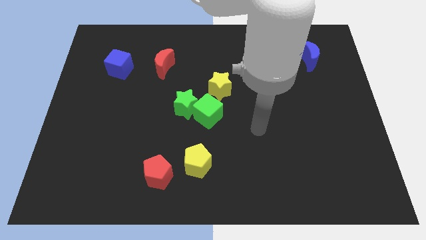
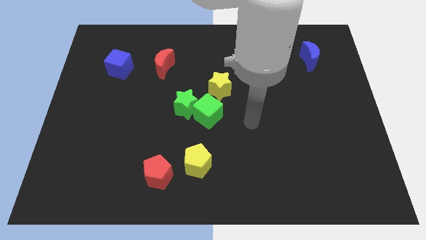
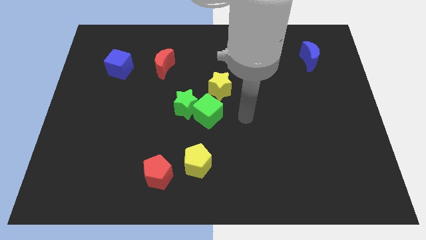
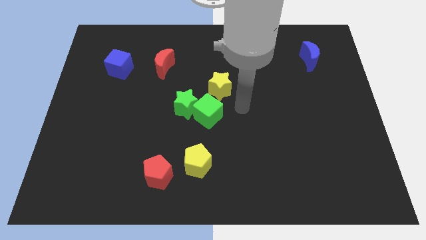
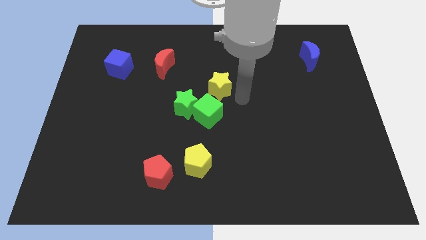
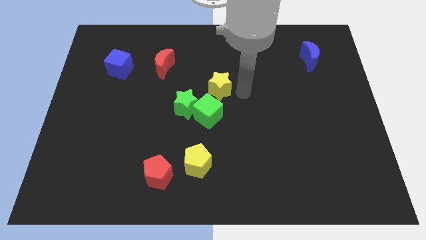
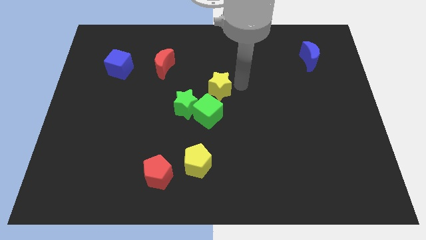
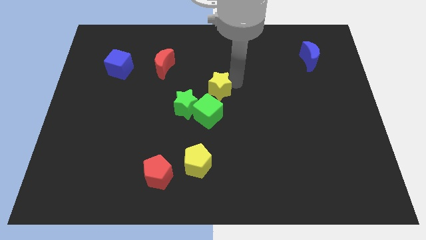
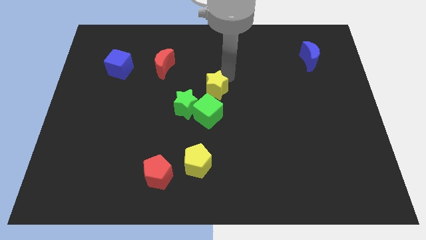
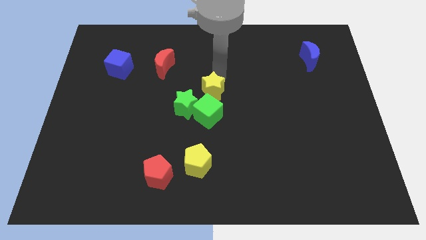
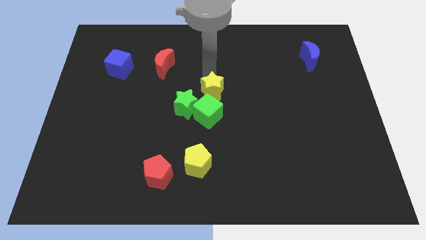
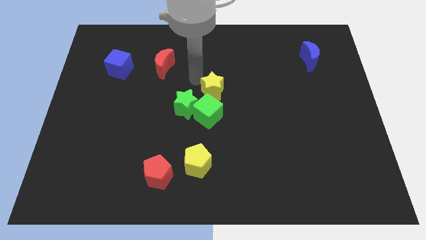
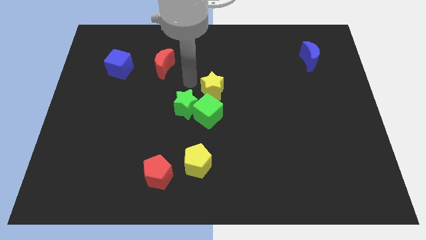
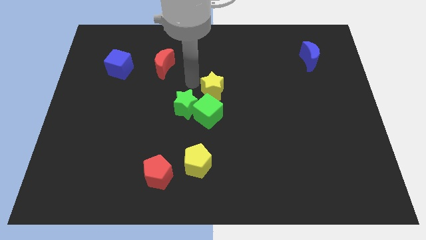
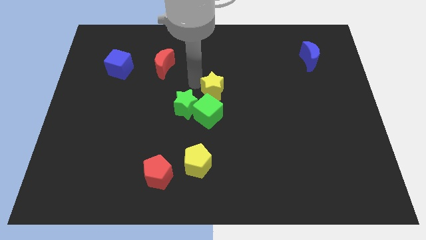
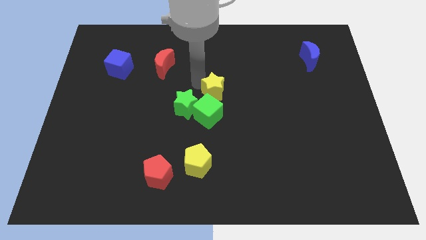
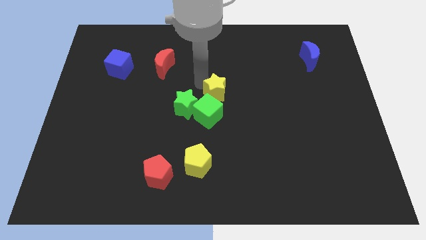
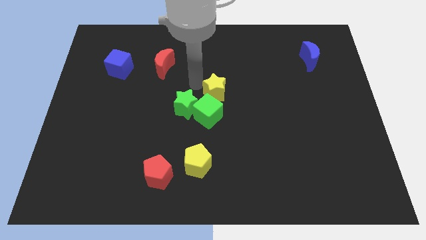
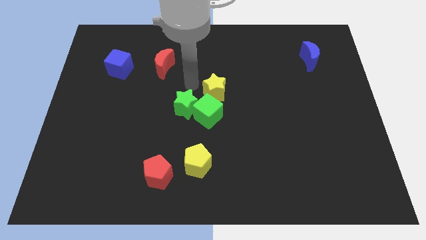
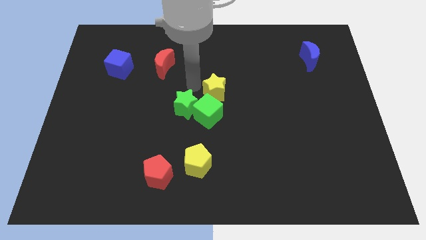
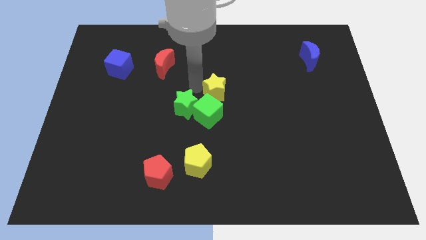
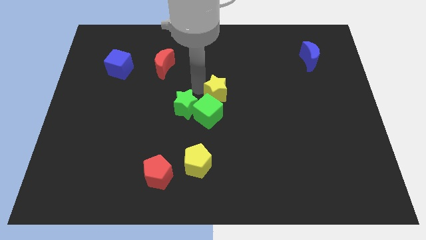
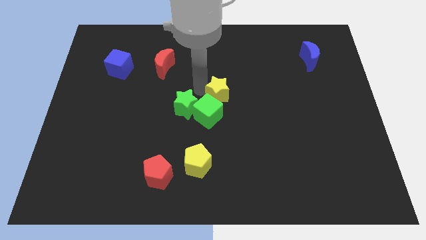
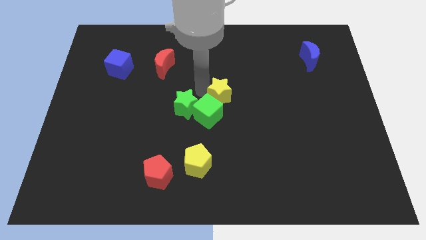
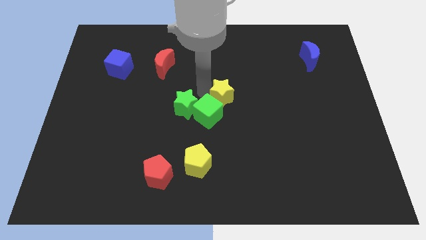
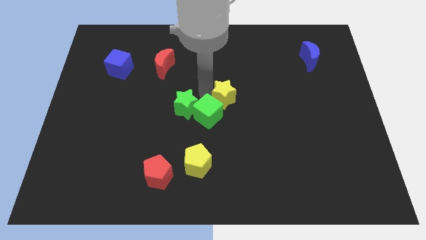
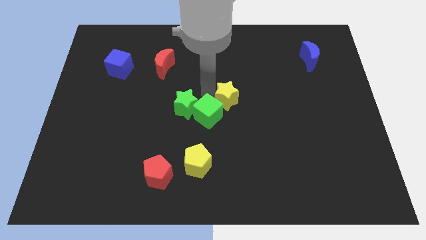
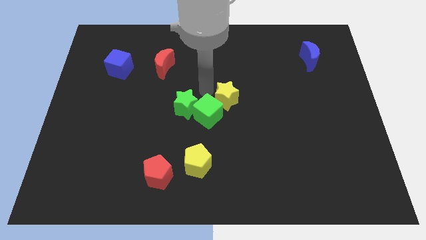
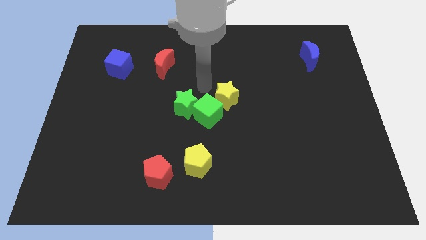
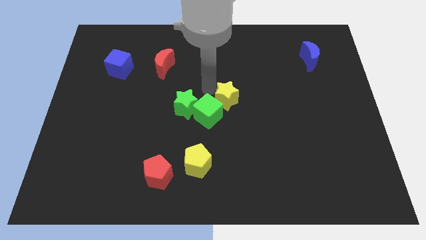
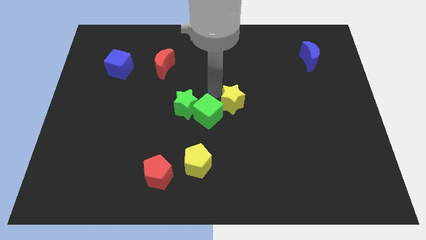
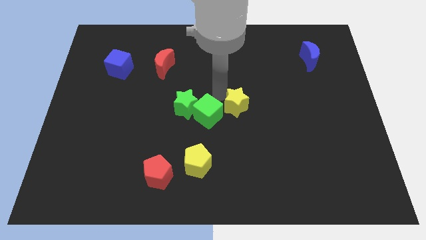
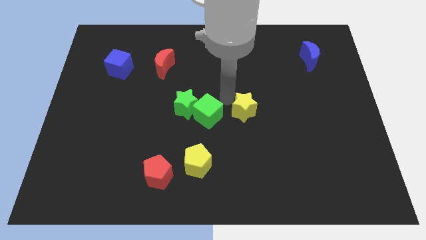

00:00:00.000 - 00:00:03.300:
move the yellow star down and right diagonally a bit

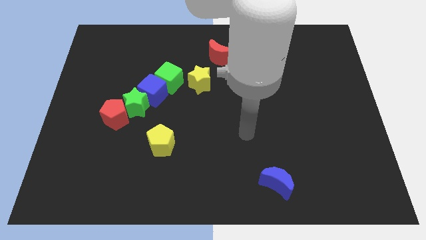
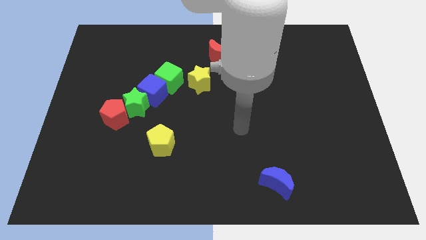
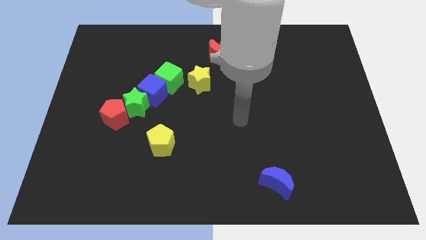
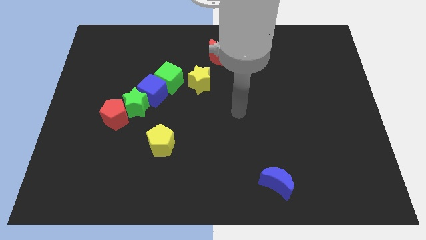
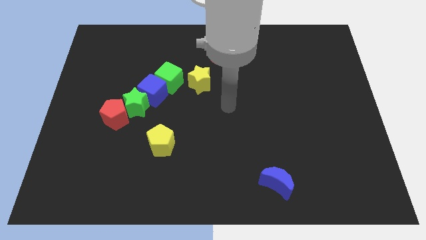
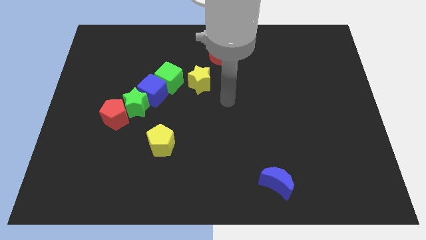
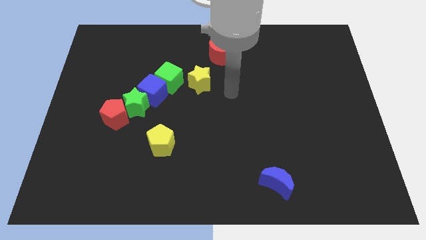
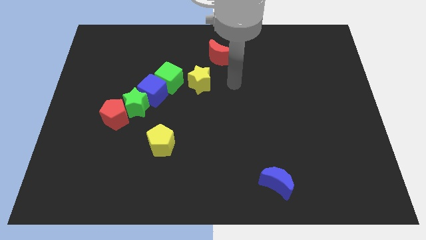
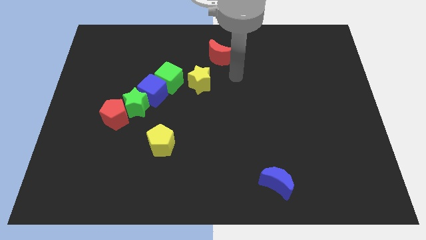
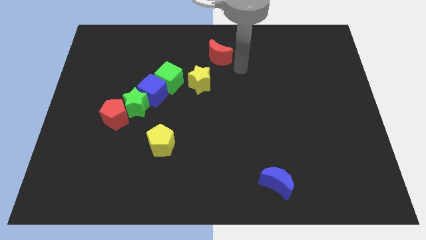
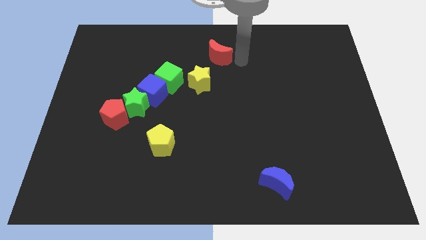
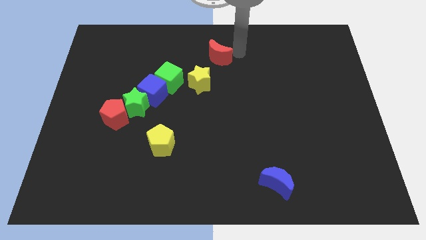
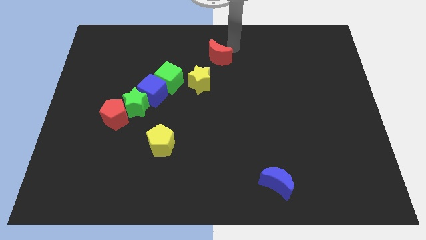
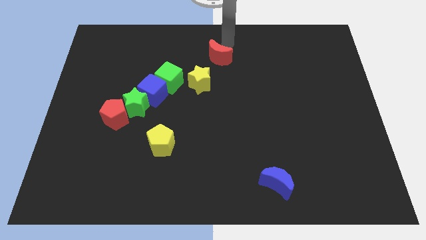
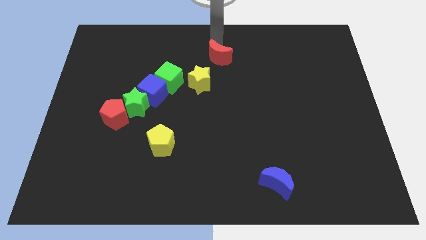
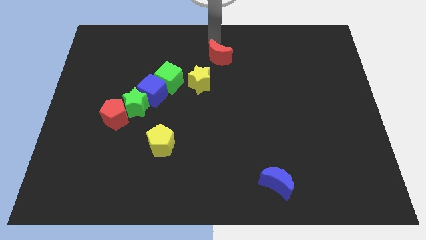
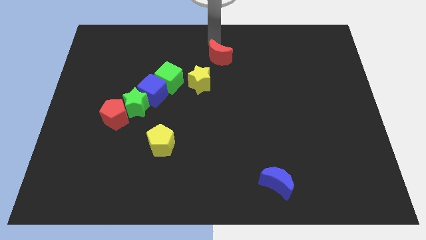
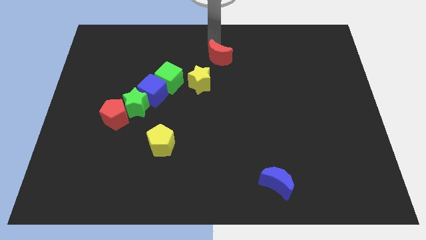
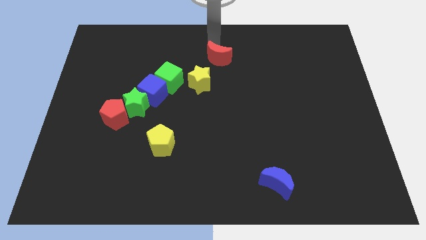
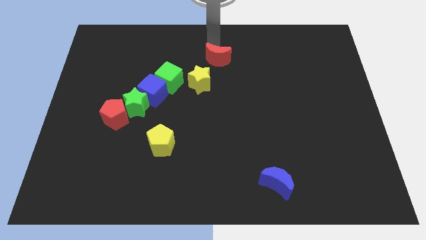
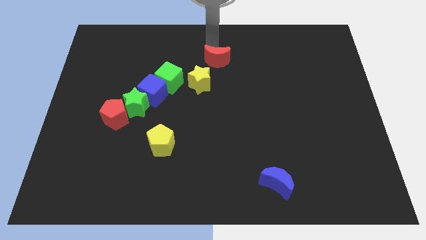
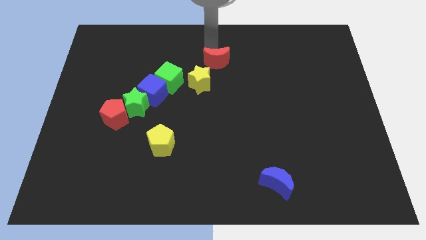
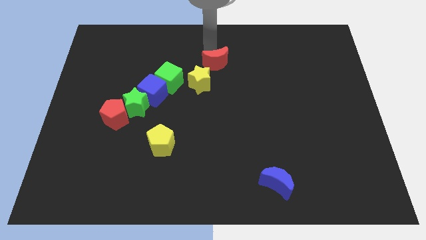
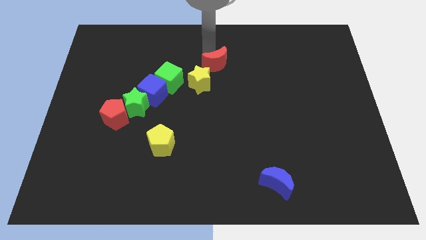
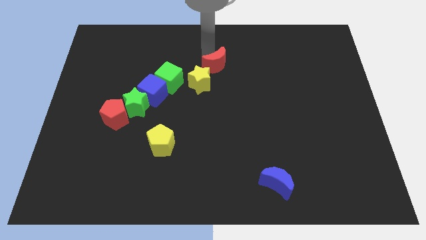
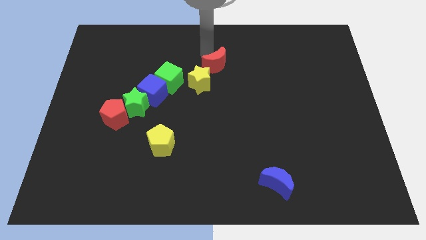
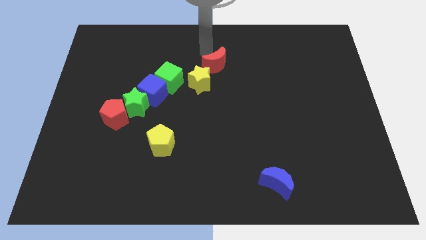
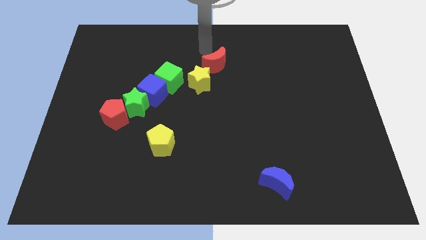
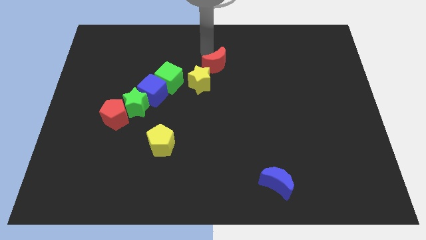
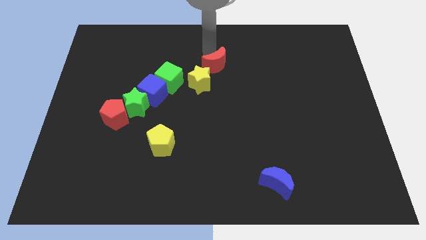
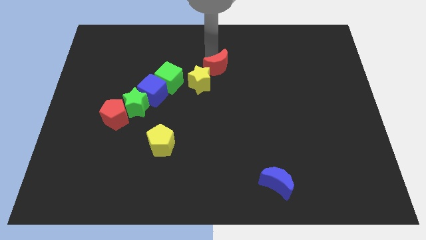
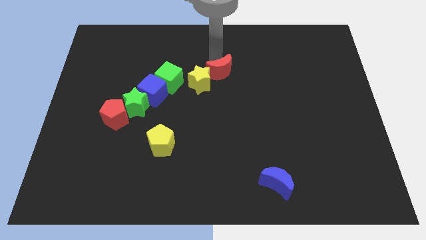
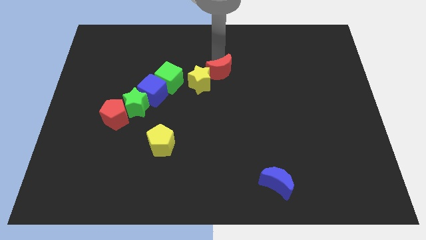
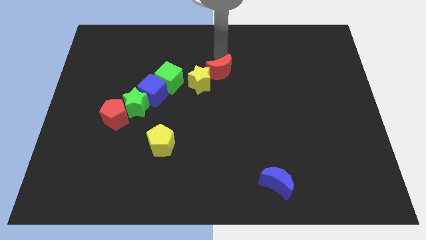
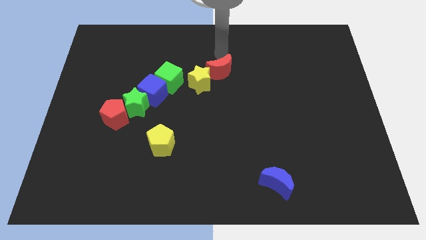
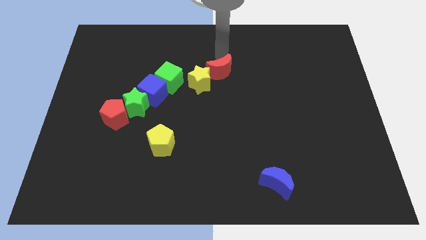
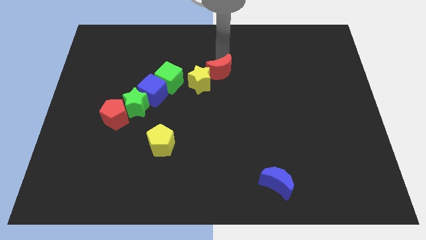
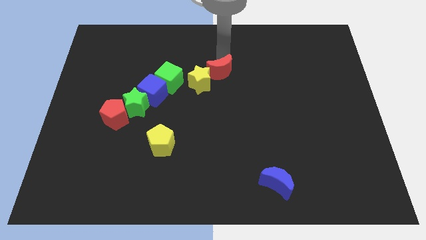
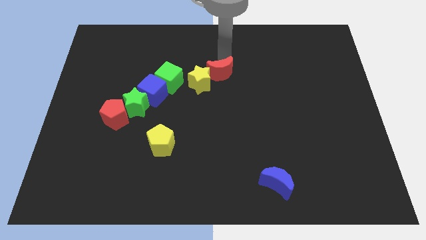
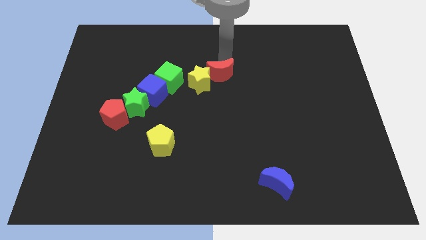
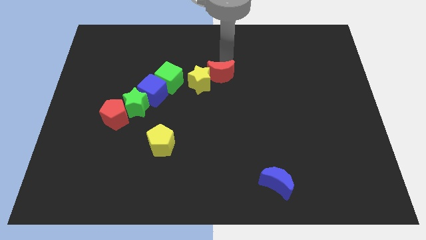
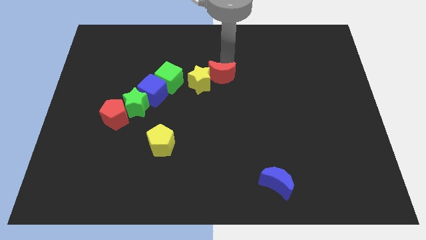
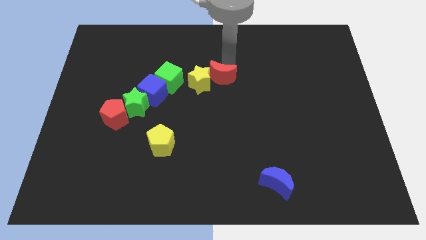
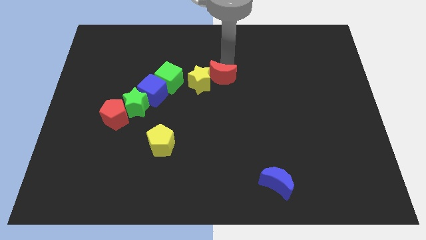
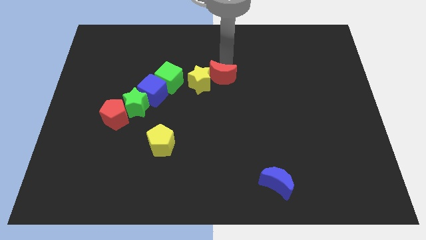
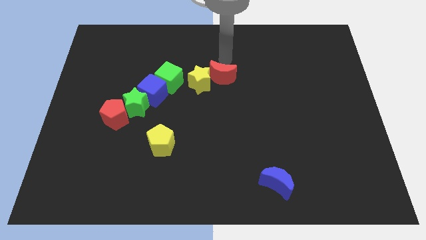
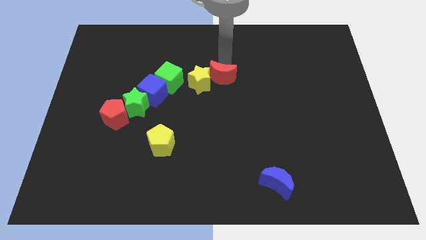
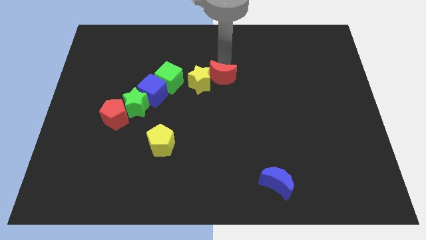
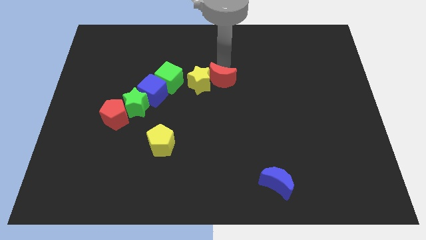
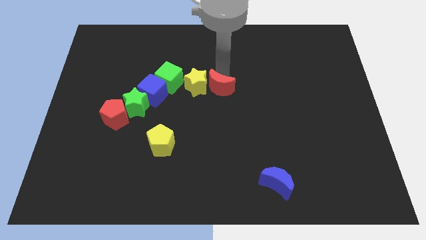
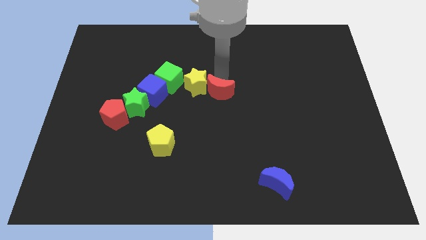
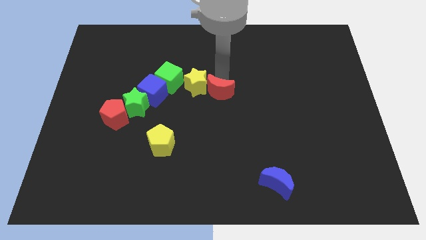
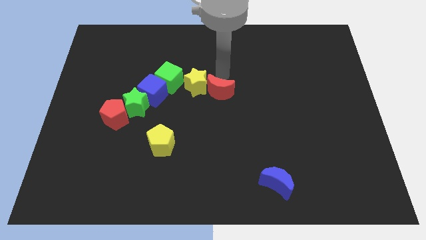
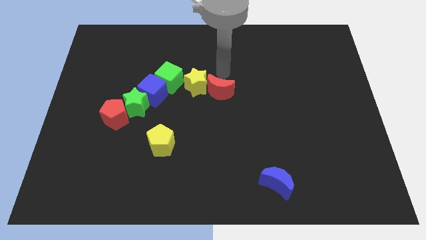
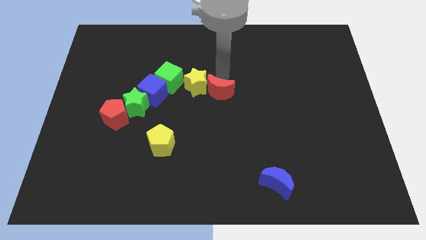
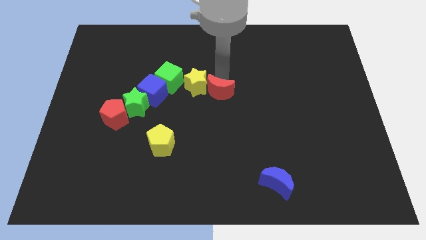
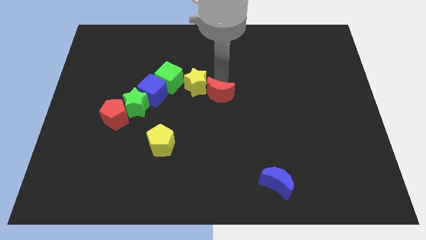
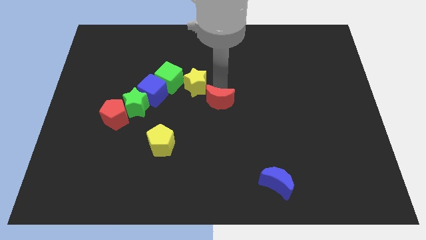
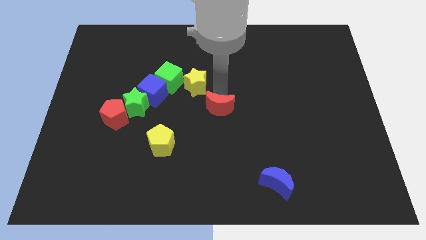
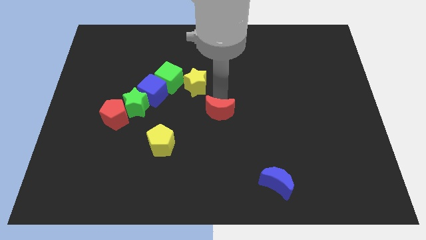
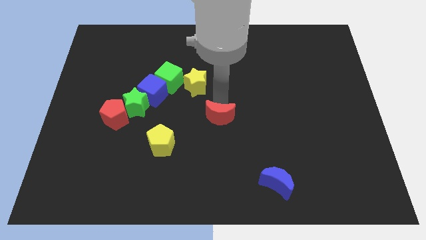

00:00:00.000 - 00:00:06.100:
push the red moon down
